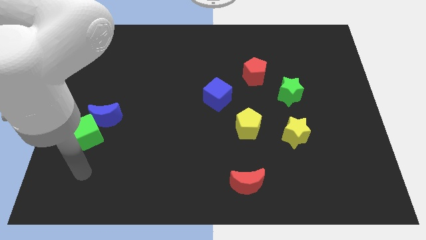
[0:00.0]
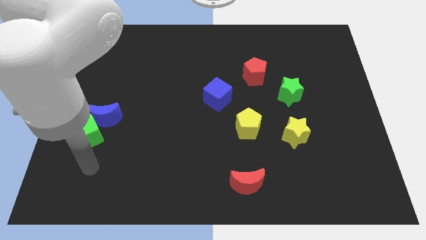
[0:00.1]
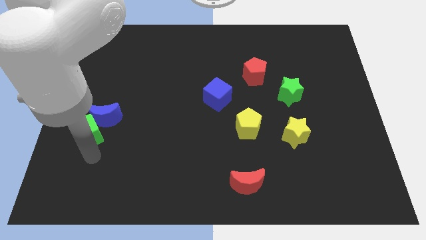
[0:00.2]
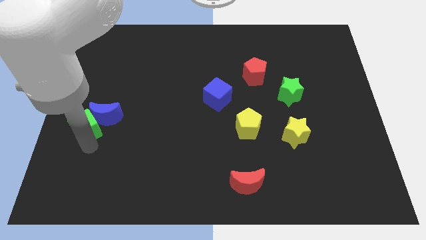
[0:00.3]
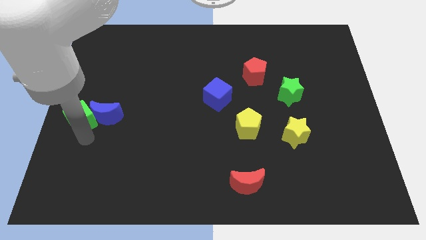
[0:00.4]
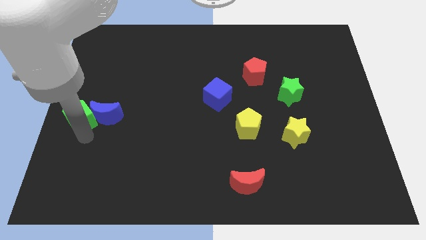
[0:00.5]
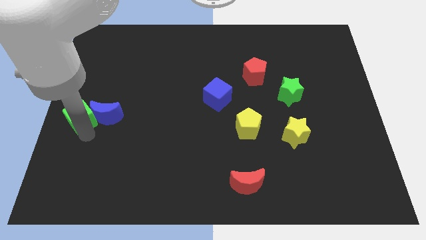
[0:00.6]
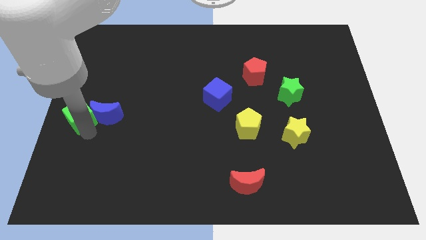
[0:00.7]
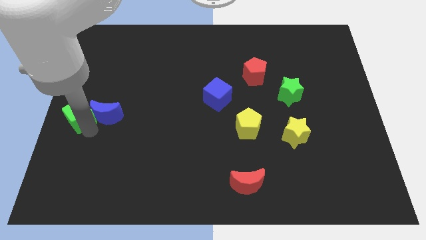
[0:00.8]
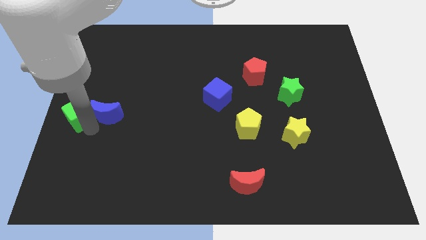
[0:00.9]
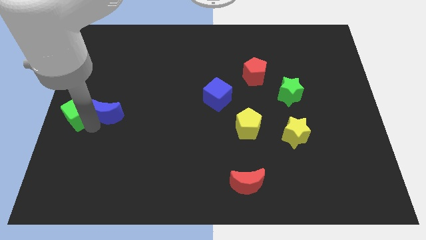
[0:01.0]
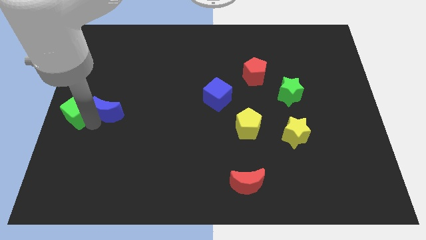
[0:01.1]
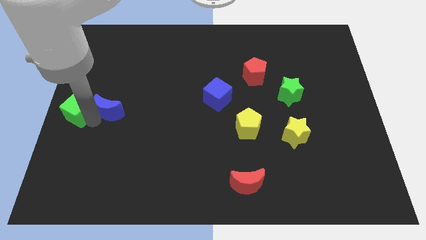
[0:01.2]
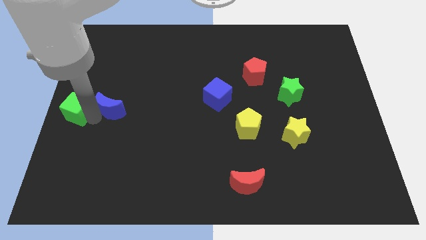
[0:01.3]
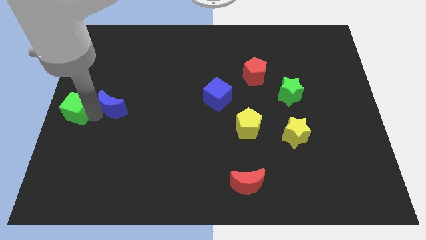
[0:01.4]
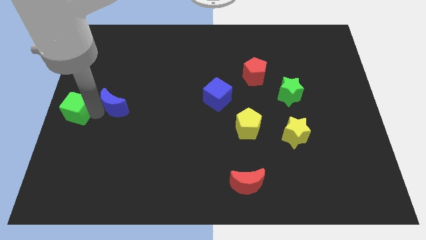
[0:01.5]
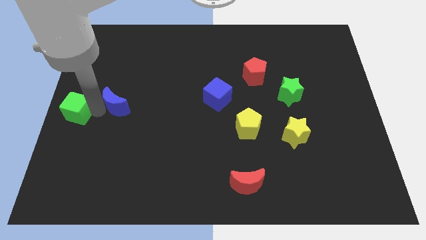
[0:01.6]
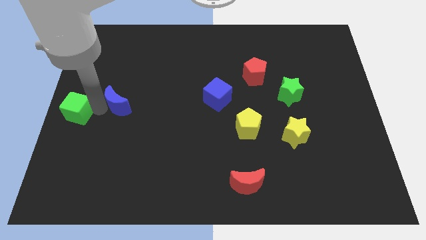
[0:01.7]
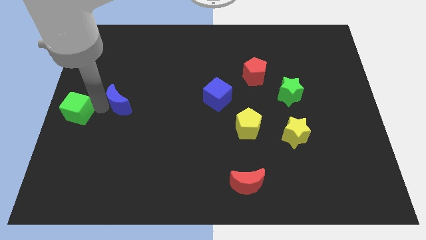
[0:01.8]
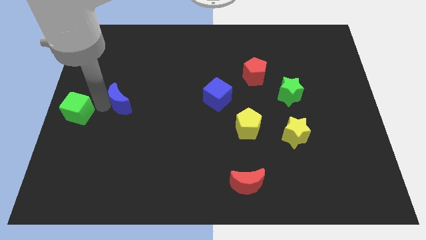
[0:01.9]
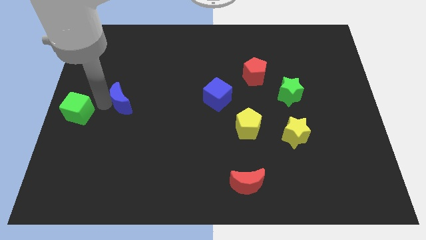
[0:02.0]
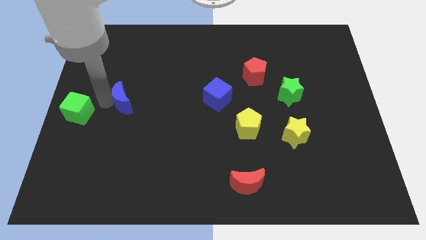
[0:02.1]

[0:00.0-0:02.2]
pull the blue moon apart from the green cube

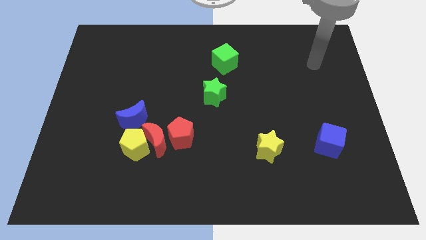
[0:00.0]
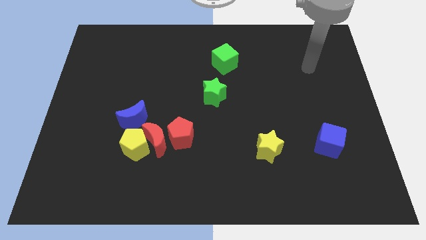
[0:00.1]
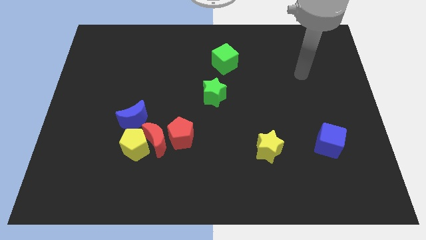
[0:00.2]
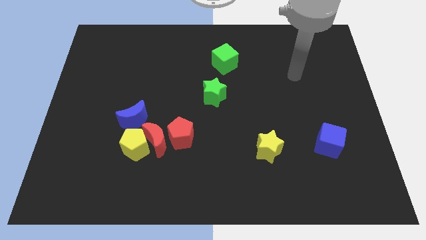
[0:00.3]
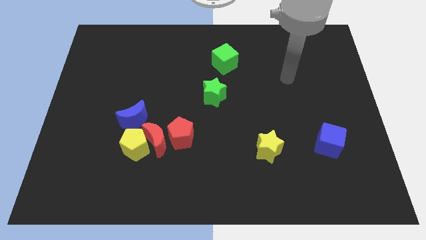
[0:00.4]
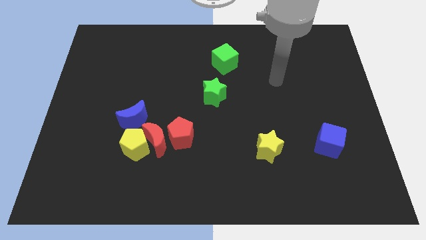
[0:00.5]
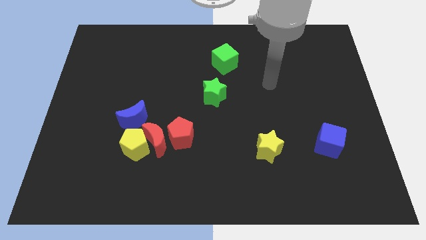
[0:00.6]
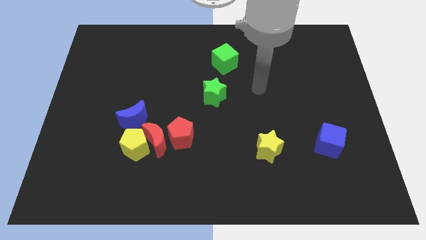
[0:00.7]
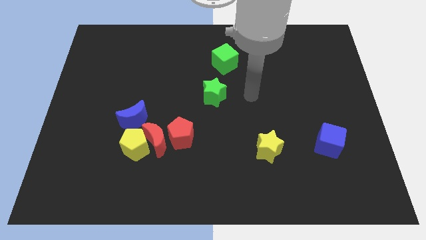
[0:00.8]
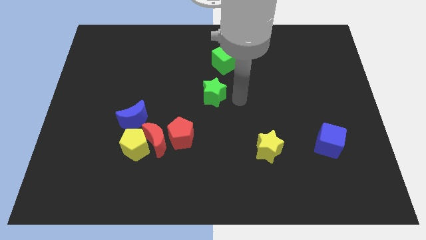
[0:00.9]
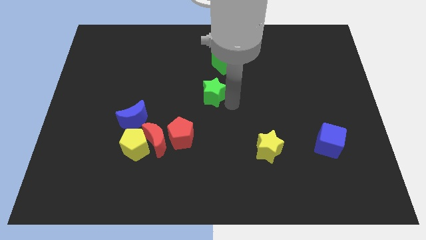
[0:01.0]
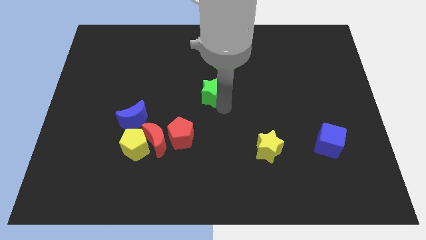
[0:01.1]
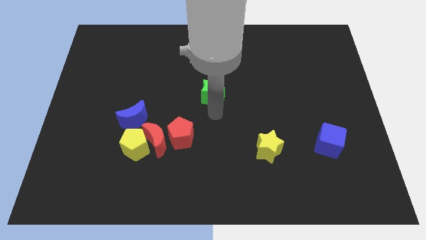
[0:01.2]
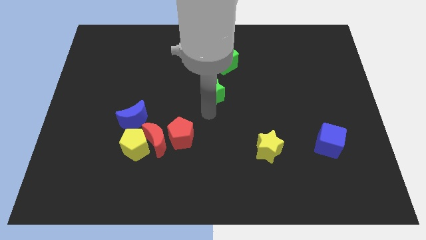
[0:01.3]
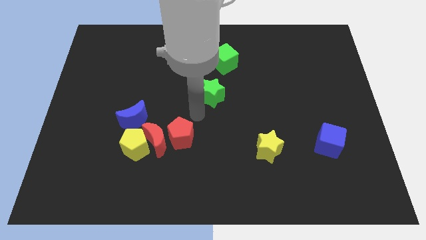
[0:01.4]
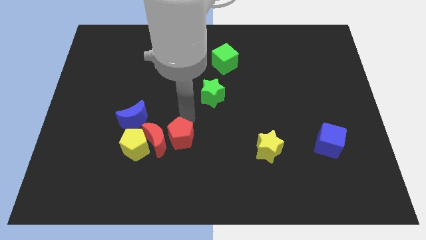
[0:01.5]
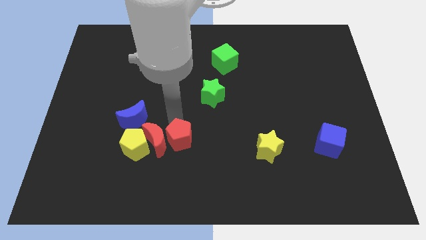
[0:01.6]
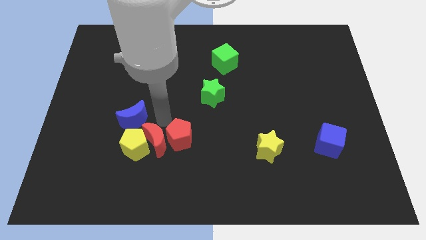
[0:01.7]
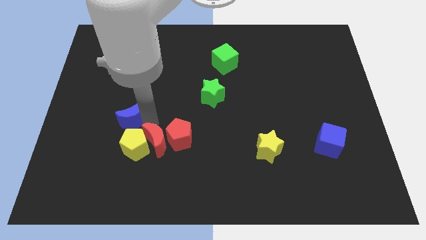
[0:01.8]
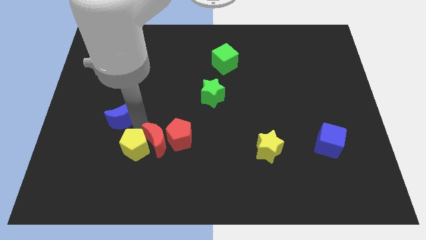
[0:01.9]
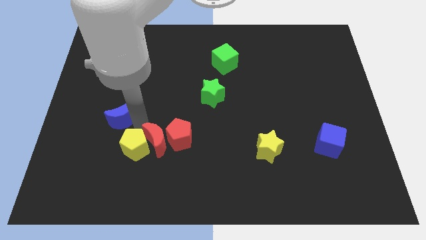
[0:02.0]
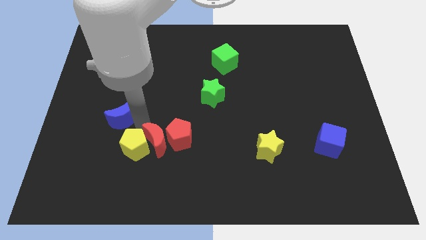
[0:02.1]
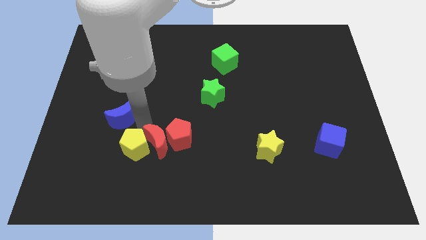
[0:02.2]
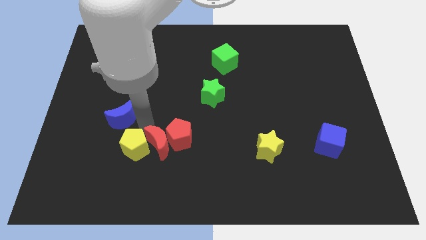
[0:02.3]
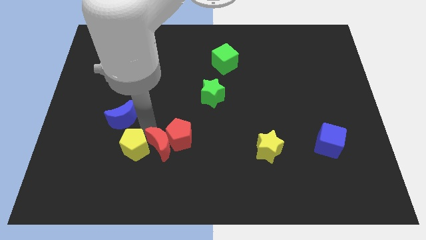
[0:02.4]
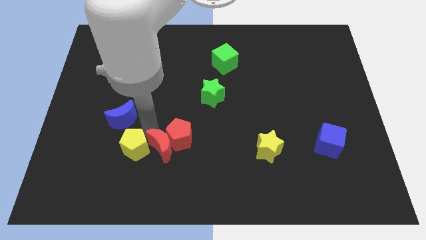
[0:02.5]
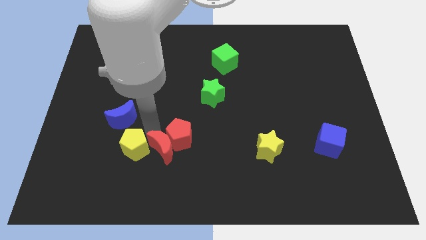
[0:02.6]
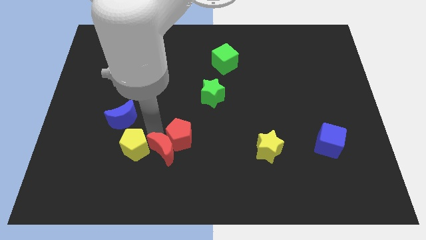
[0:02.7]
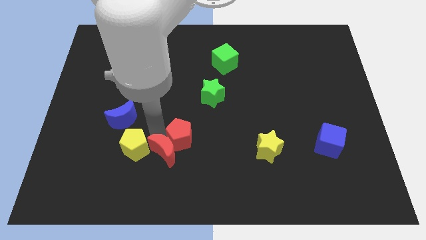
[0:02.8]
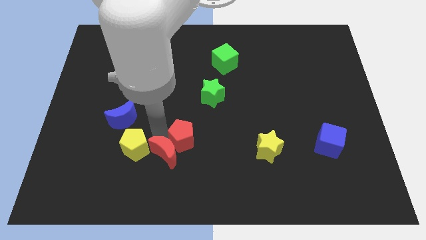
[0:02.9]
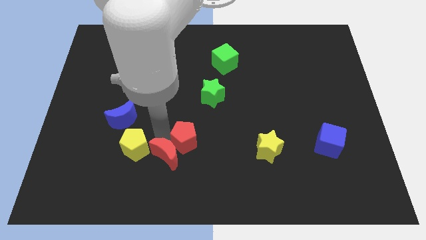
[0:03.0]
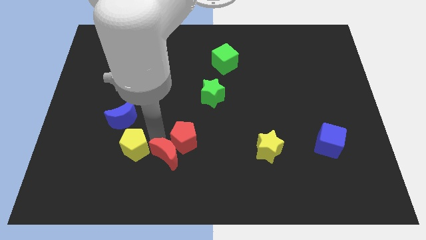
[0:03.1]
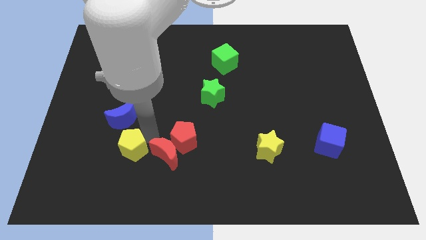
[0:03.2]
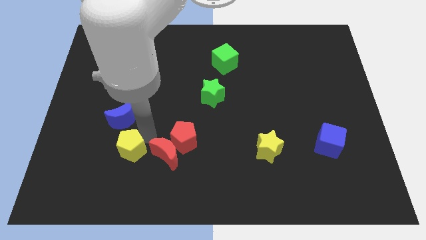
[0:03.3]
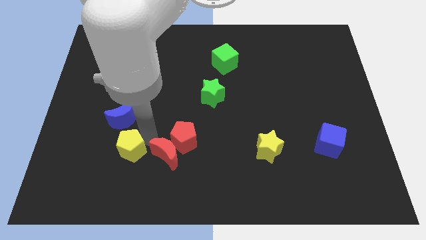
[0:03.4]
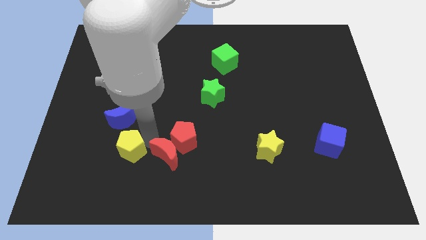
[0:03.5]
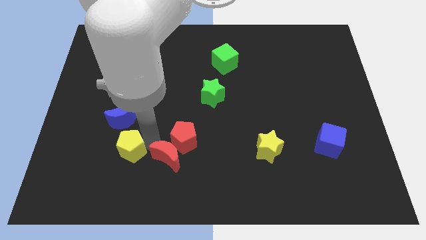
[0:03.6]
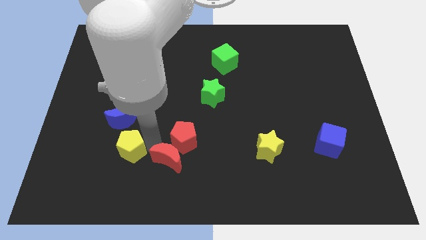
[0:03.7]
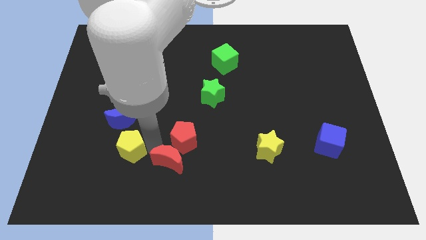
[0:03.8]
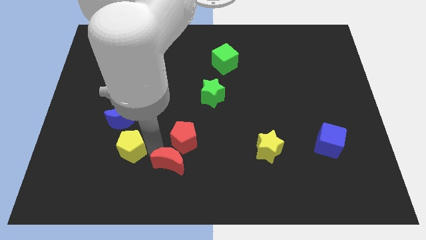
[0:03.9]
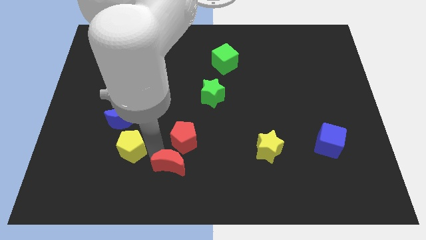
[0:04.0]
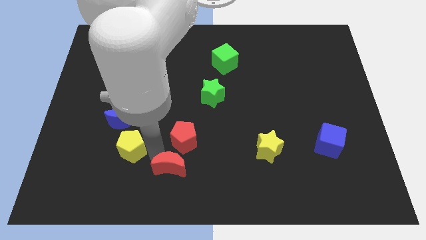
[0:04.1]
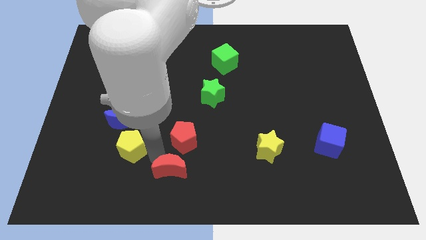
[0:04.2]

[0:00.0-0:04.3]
move the red moon away from the yellow pentagon, red pentagon, and blue moon

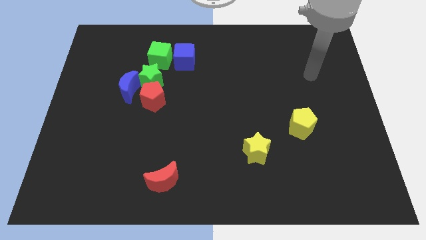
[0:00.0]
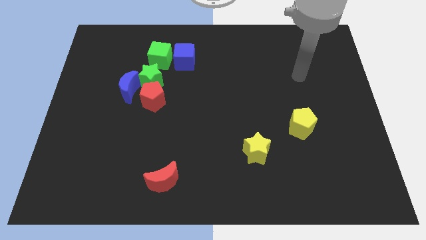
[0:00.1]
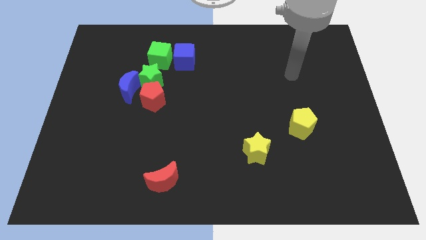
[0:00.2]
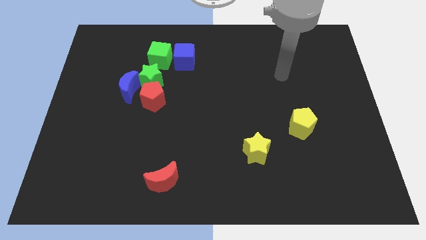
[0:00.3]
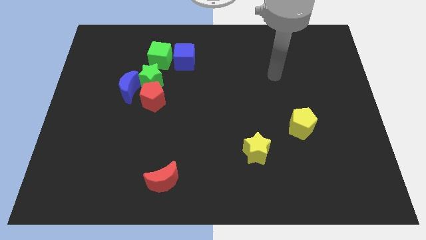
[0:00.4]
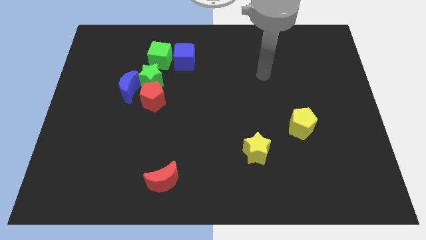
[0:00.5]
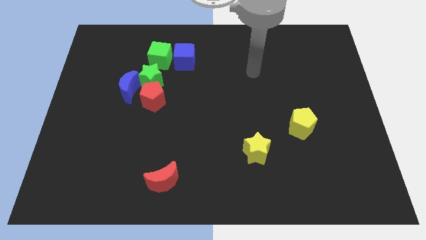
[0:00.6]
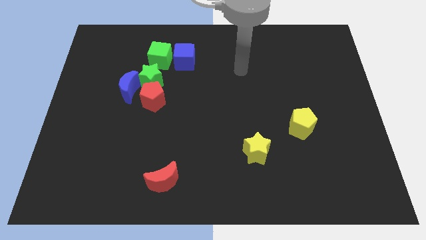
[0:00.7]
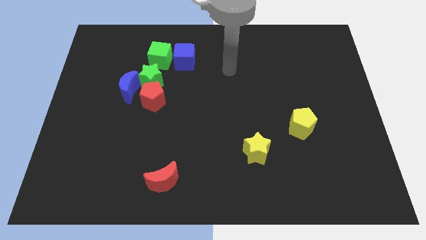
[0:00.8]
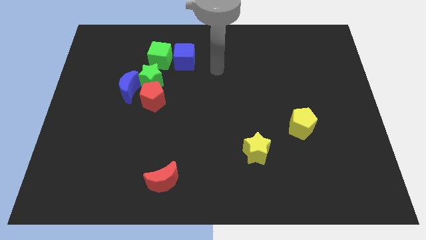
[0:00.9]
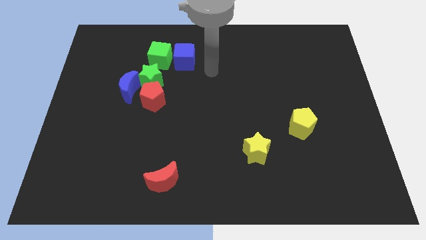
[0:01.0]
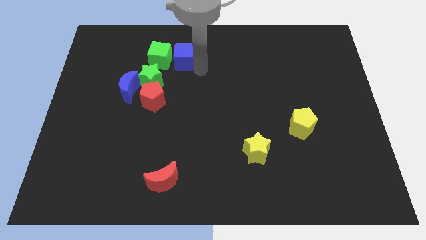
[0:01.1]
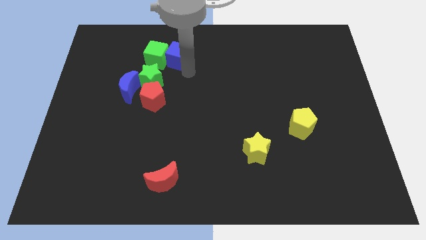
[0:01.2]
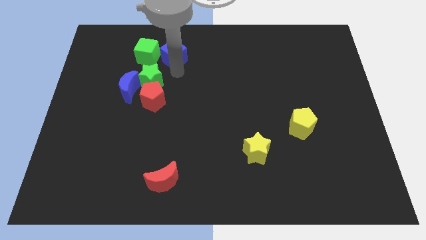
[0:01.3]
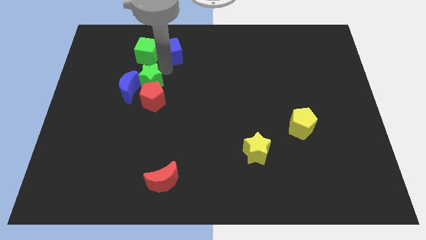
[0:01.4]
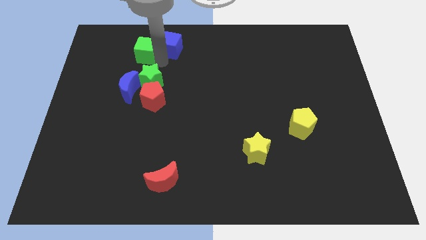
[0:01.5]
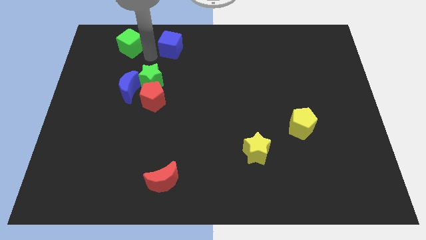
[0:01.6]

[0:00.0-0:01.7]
separate the blue cube from the green cube

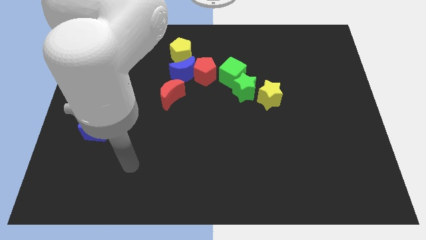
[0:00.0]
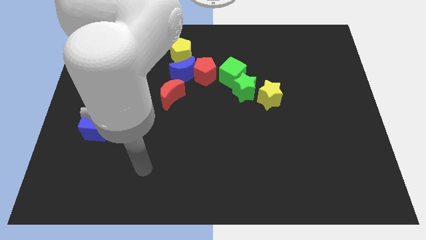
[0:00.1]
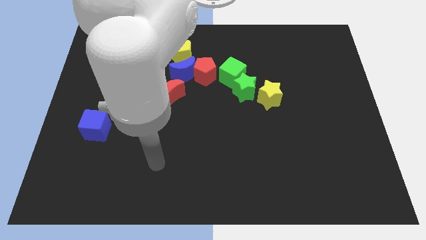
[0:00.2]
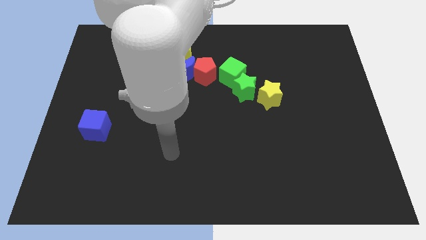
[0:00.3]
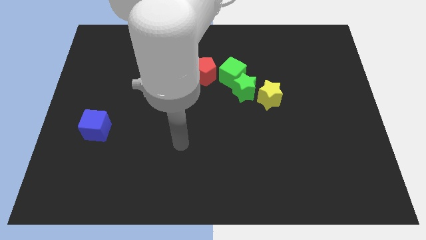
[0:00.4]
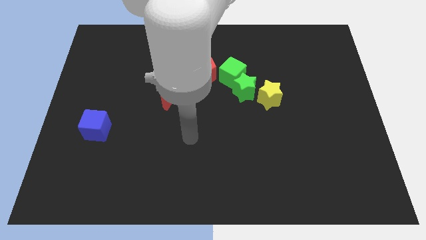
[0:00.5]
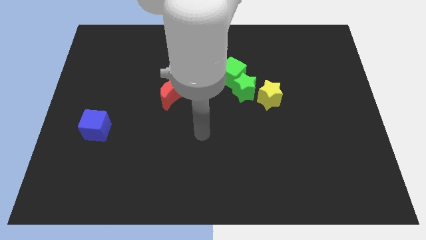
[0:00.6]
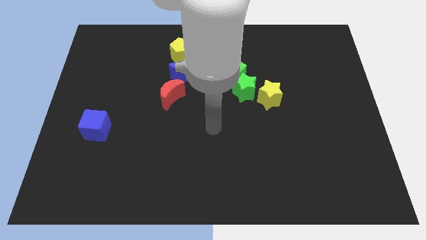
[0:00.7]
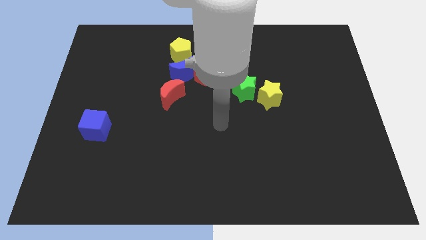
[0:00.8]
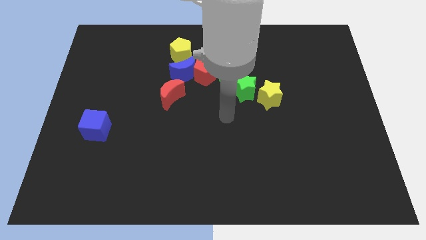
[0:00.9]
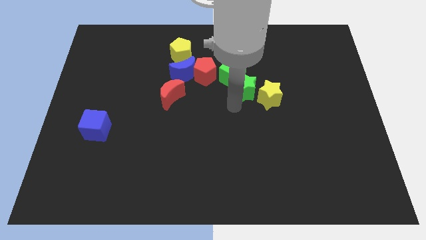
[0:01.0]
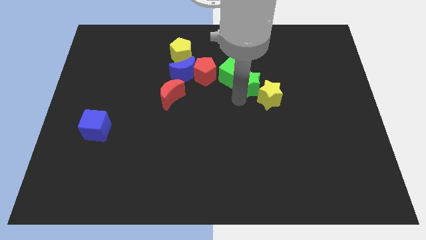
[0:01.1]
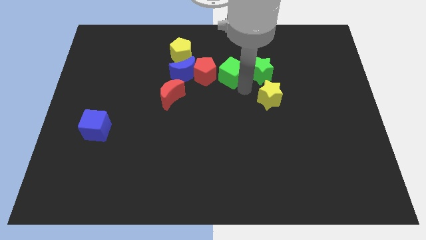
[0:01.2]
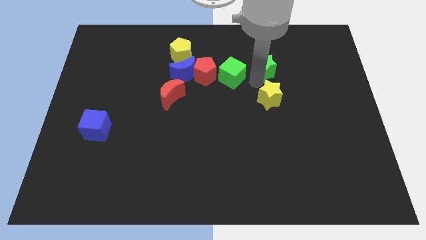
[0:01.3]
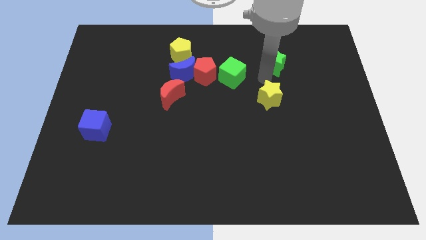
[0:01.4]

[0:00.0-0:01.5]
move the yellow star away from the green star
